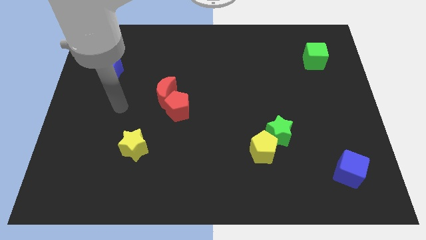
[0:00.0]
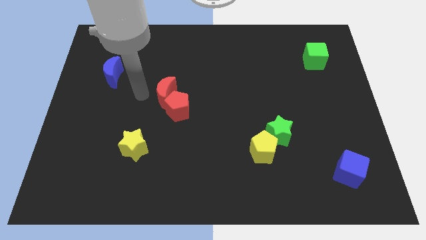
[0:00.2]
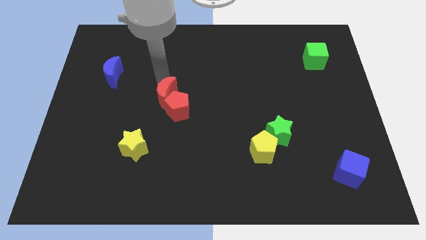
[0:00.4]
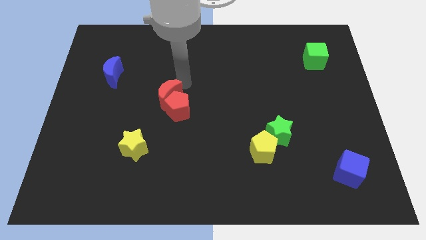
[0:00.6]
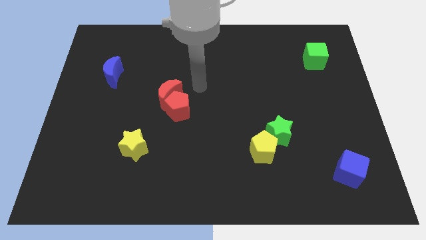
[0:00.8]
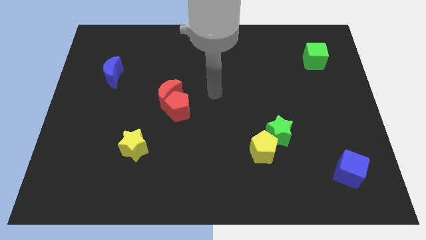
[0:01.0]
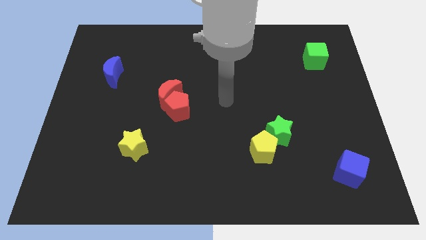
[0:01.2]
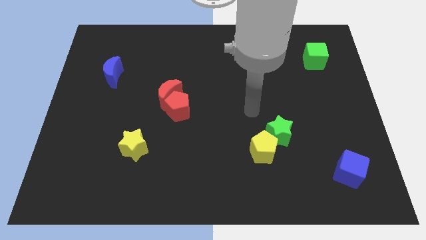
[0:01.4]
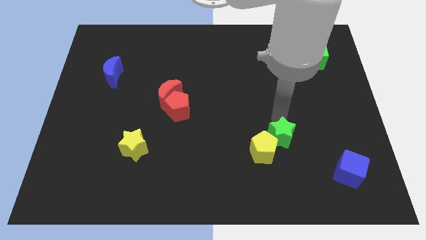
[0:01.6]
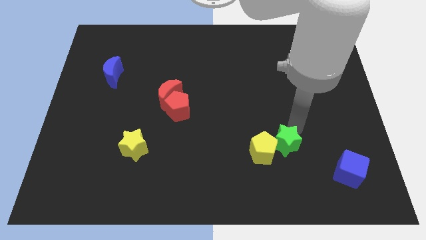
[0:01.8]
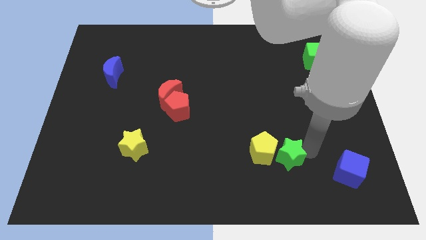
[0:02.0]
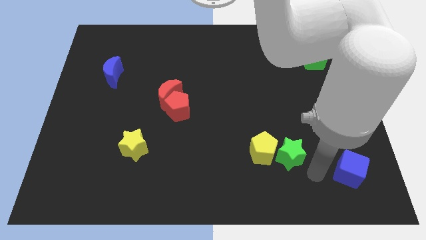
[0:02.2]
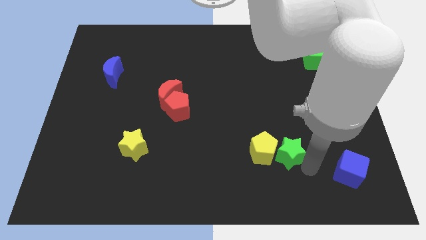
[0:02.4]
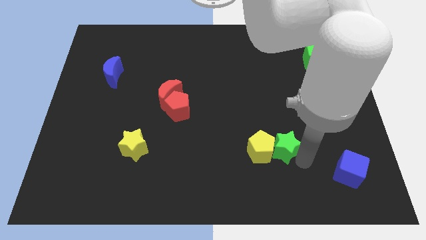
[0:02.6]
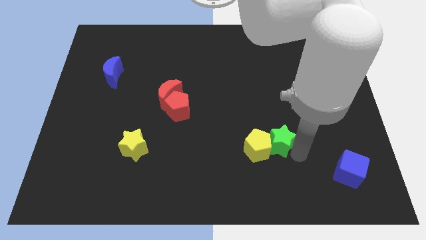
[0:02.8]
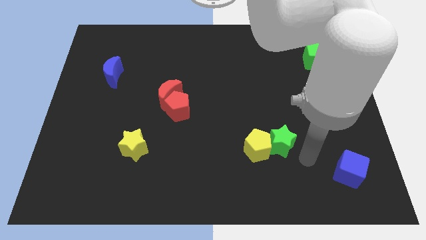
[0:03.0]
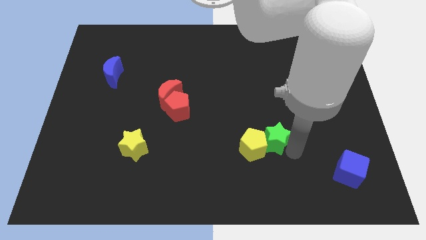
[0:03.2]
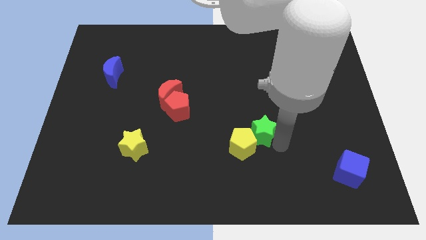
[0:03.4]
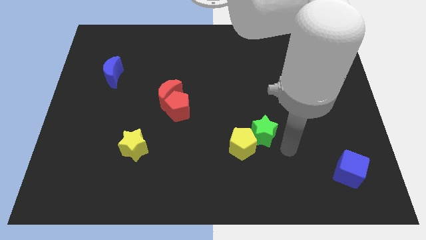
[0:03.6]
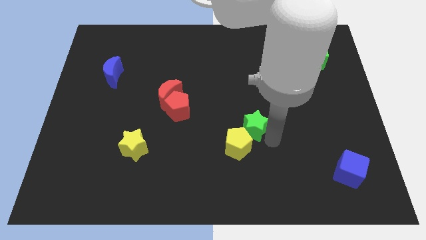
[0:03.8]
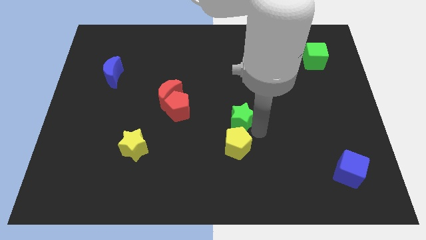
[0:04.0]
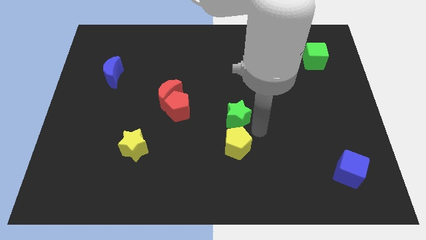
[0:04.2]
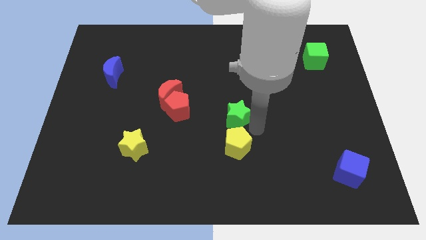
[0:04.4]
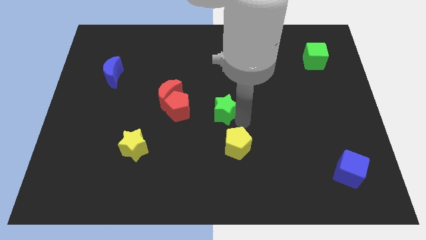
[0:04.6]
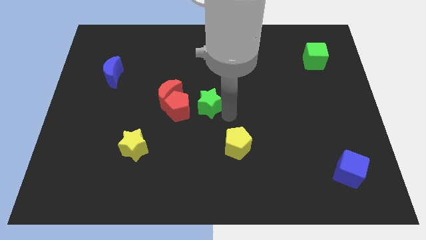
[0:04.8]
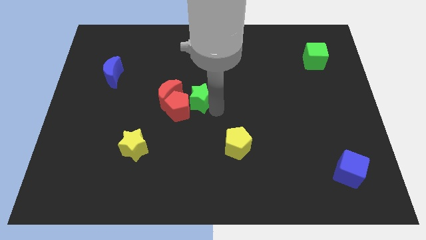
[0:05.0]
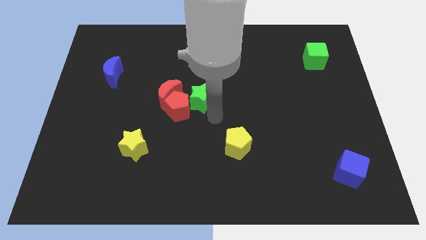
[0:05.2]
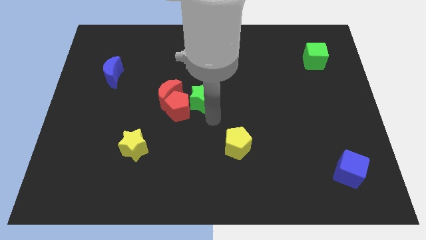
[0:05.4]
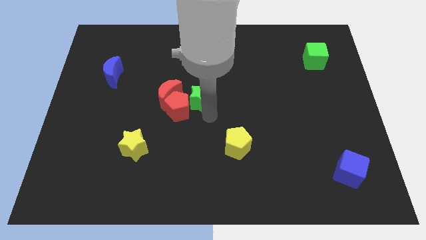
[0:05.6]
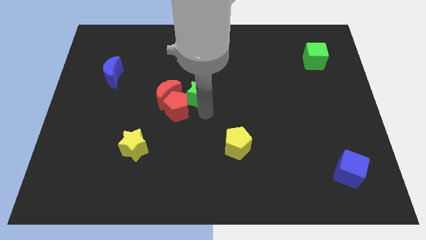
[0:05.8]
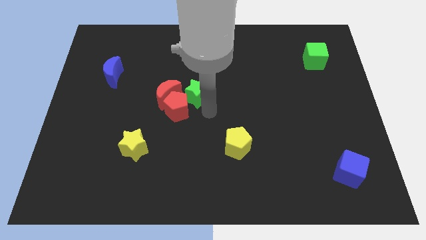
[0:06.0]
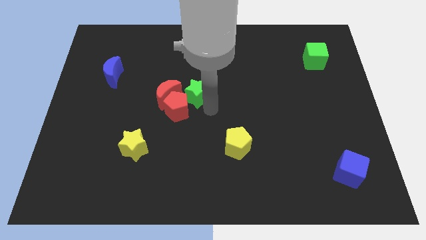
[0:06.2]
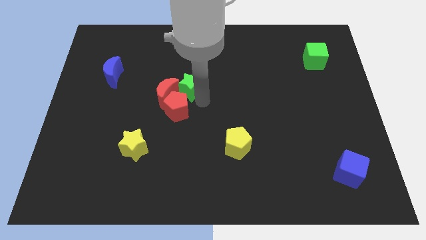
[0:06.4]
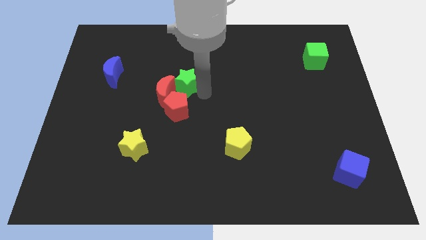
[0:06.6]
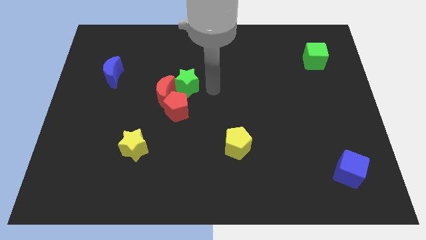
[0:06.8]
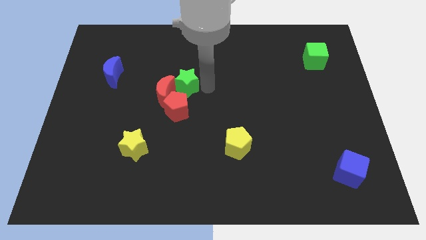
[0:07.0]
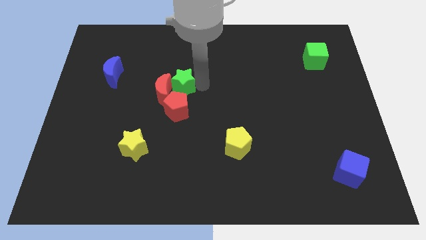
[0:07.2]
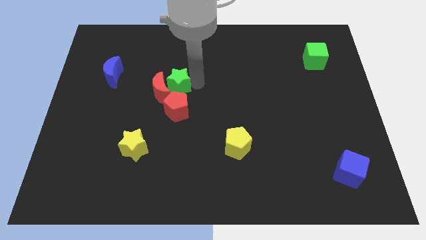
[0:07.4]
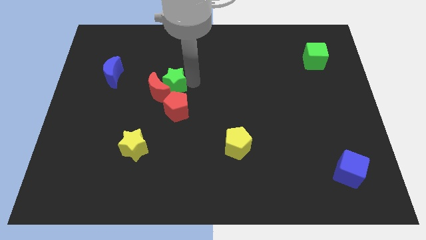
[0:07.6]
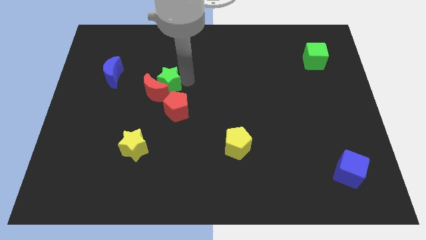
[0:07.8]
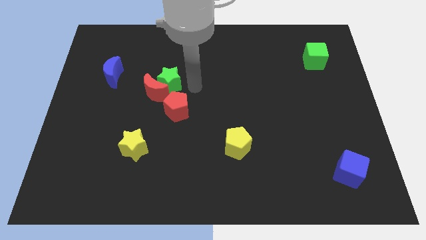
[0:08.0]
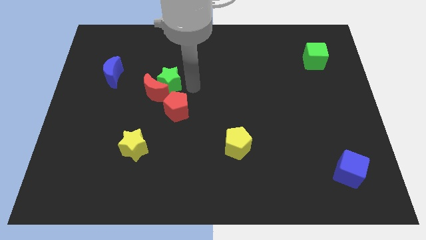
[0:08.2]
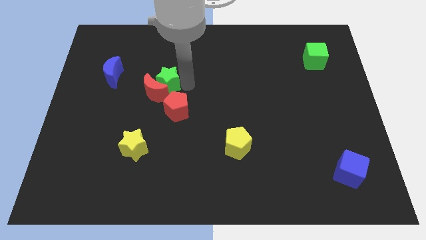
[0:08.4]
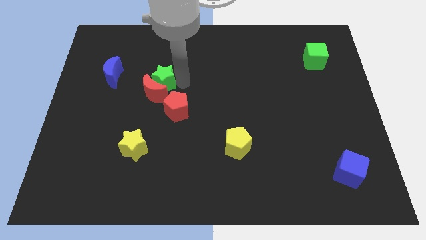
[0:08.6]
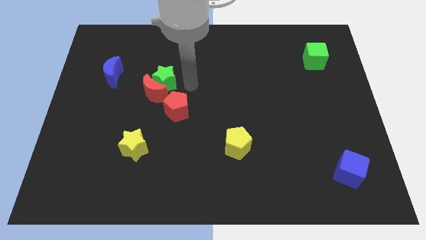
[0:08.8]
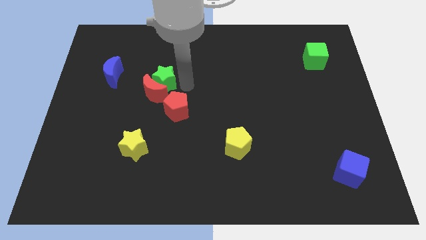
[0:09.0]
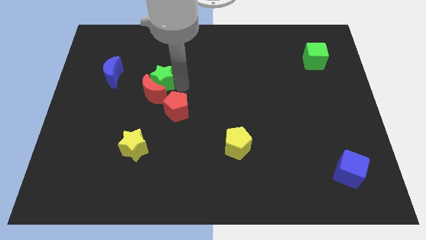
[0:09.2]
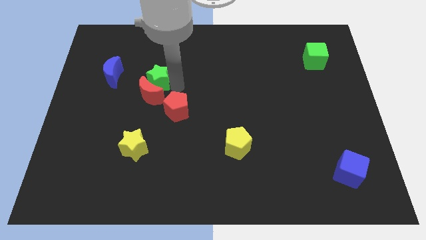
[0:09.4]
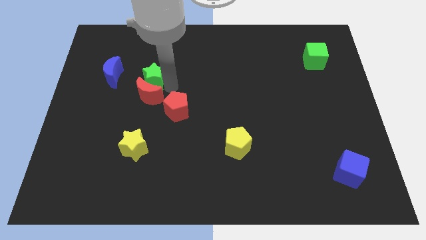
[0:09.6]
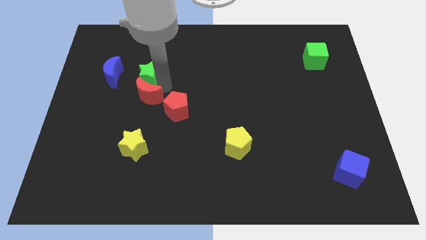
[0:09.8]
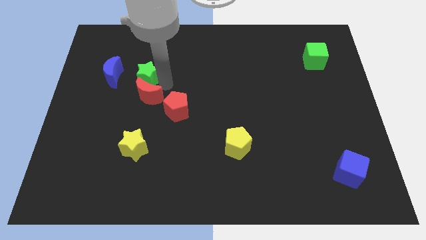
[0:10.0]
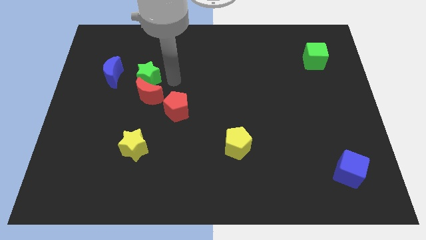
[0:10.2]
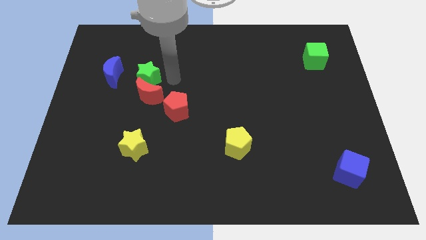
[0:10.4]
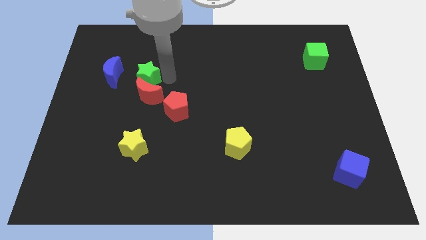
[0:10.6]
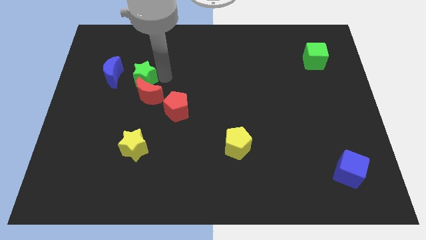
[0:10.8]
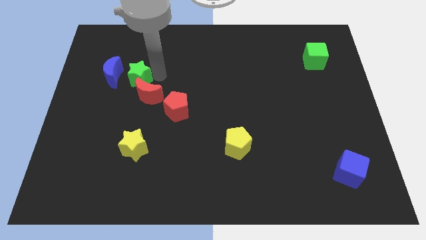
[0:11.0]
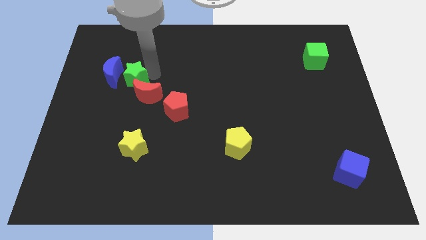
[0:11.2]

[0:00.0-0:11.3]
move the green star to the blue moon

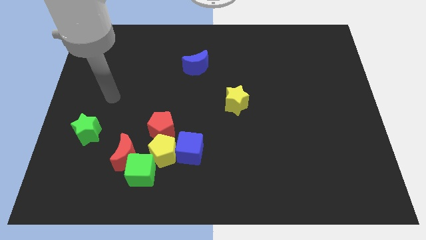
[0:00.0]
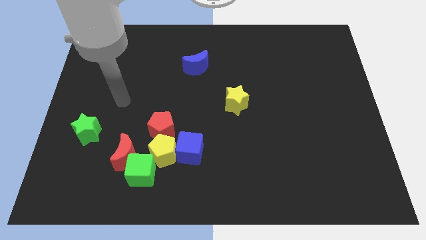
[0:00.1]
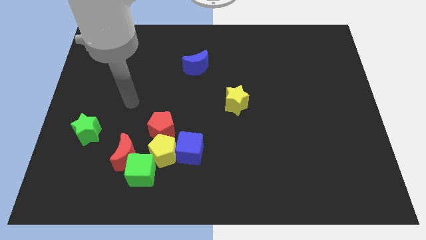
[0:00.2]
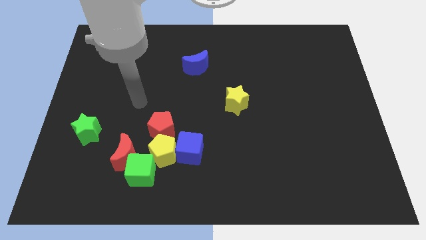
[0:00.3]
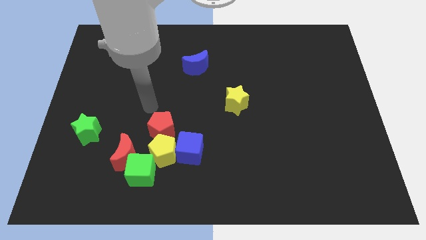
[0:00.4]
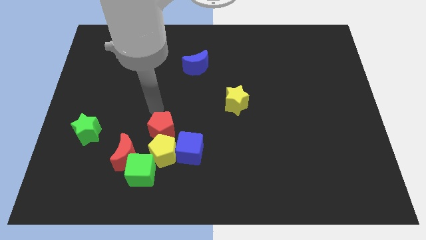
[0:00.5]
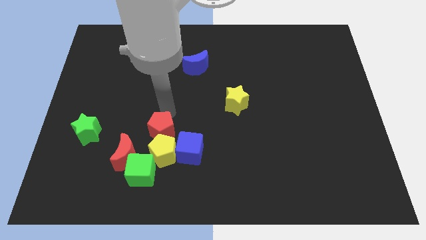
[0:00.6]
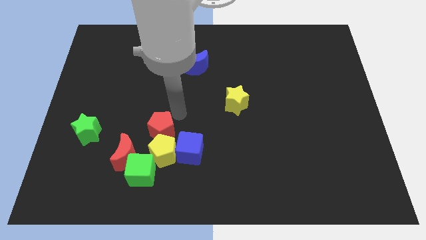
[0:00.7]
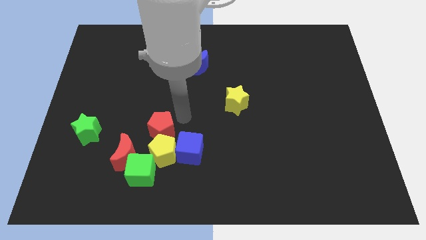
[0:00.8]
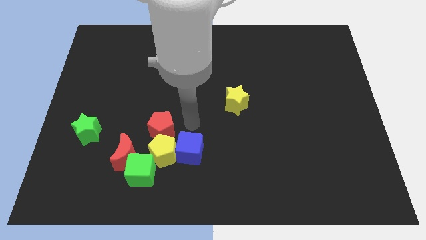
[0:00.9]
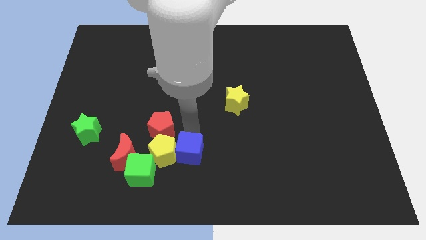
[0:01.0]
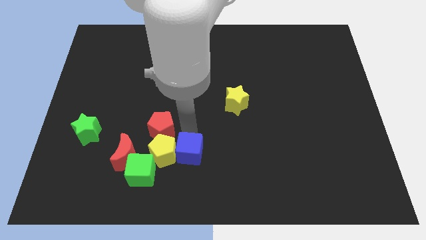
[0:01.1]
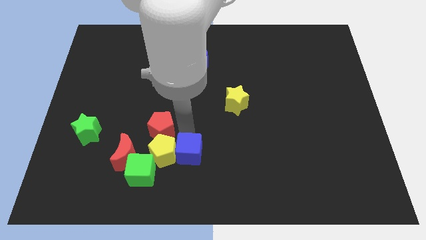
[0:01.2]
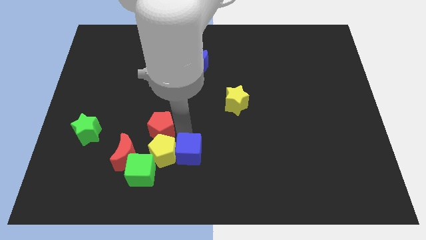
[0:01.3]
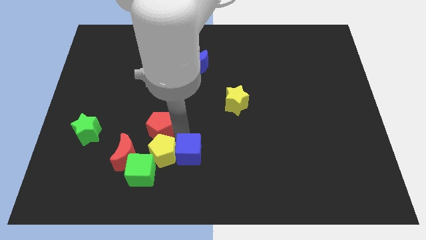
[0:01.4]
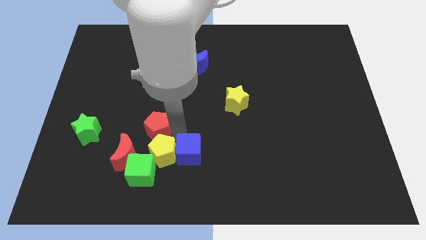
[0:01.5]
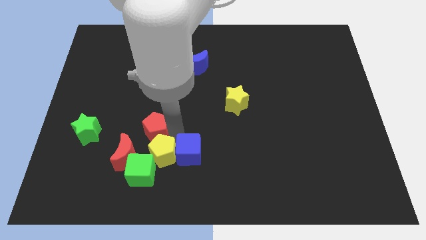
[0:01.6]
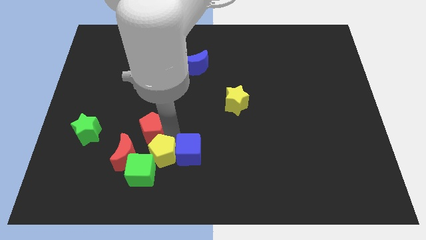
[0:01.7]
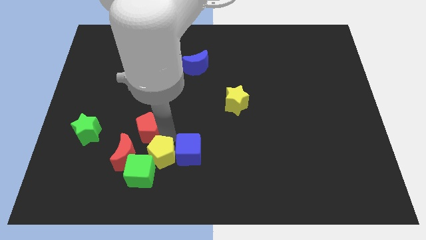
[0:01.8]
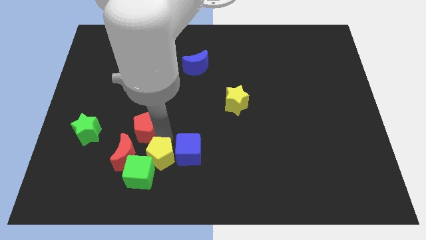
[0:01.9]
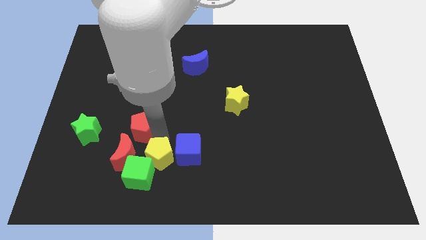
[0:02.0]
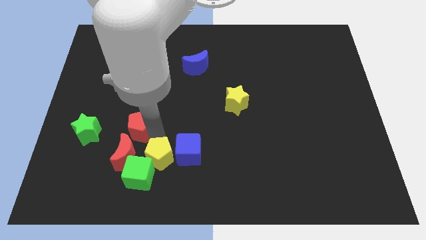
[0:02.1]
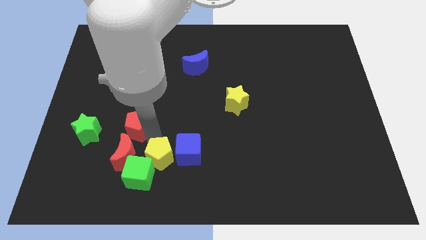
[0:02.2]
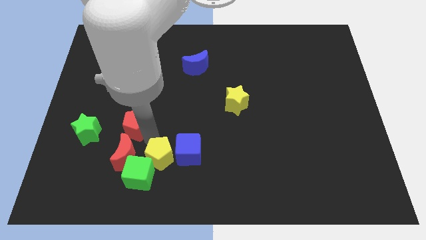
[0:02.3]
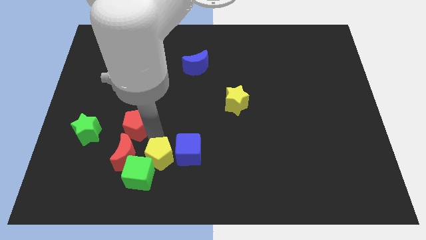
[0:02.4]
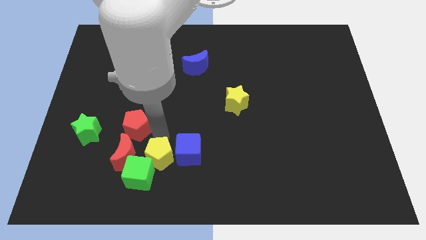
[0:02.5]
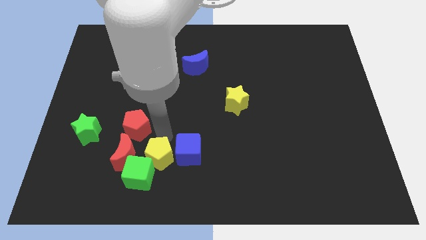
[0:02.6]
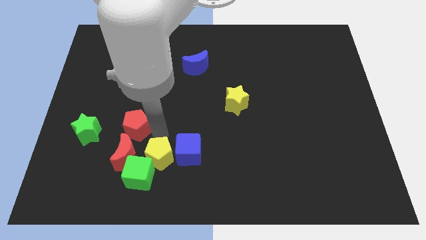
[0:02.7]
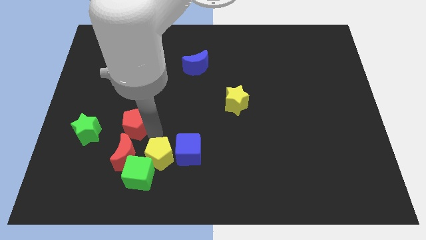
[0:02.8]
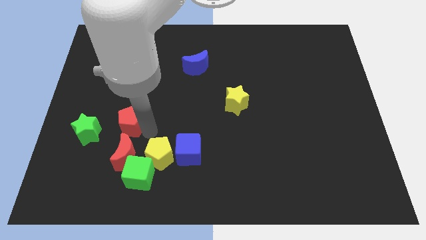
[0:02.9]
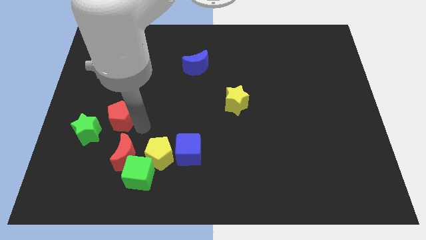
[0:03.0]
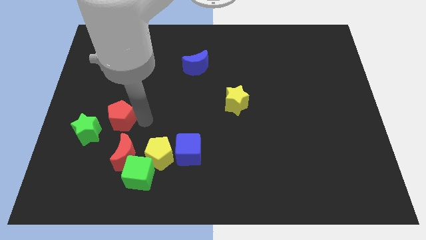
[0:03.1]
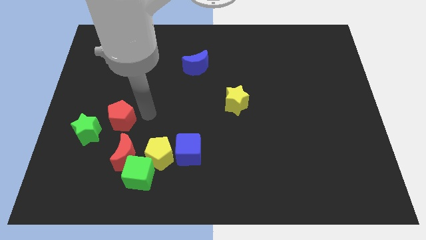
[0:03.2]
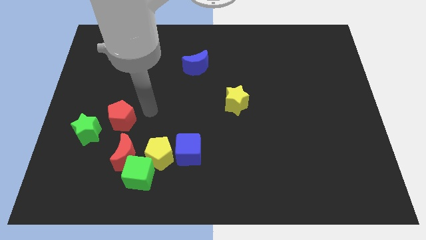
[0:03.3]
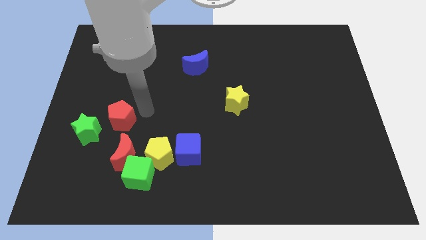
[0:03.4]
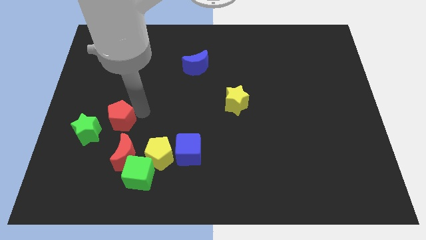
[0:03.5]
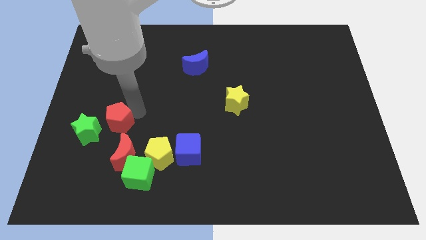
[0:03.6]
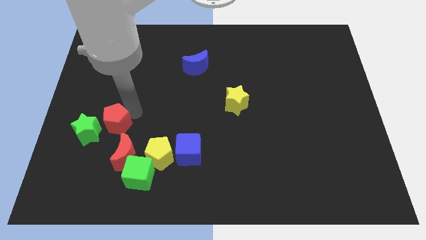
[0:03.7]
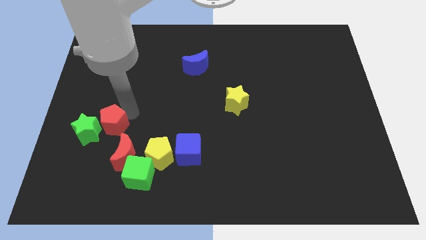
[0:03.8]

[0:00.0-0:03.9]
push the red pentagon next to the green star
